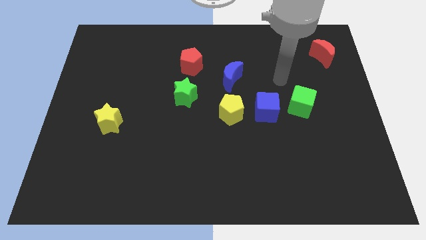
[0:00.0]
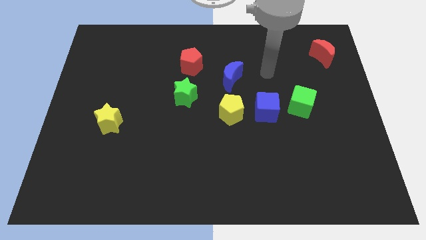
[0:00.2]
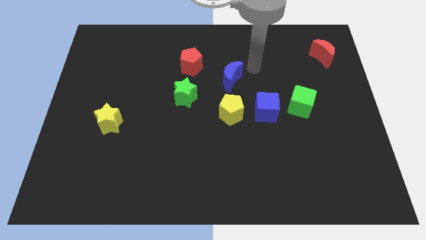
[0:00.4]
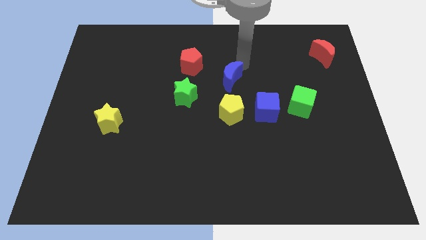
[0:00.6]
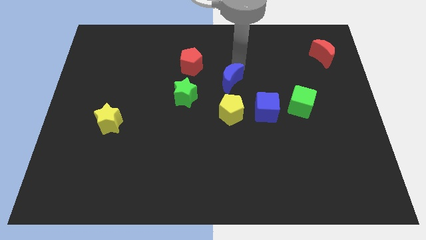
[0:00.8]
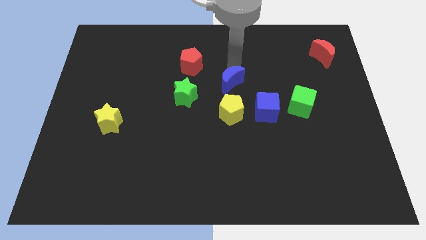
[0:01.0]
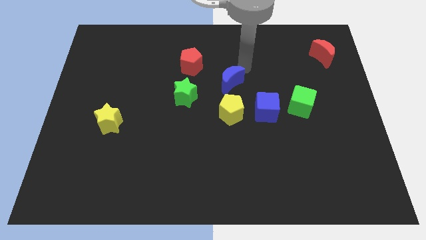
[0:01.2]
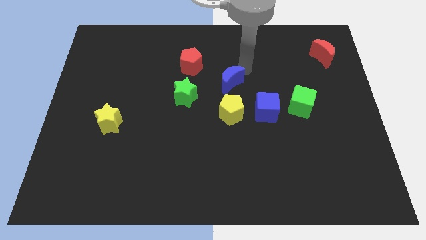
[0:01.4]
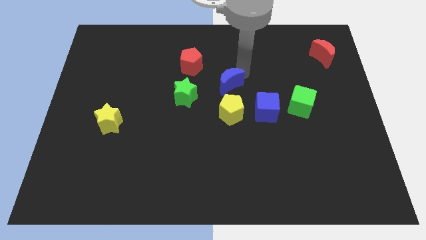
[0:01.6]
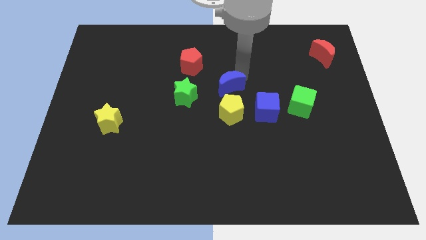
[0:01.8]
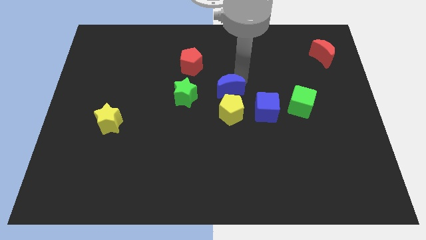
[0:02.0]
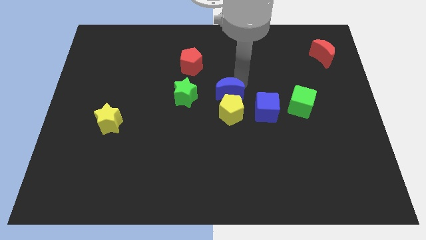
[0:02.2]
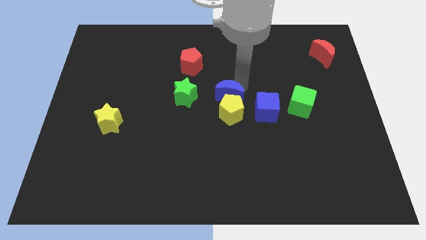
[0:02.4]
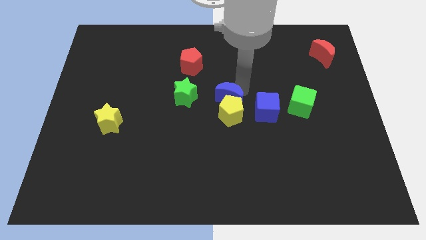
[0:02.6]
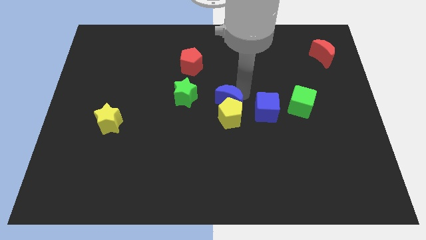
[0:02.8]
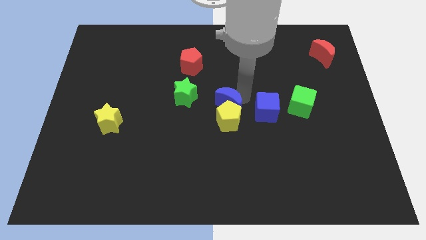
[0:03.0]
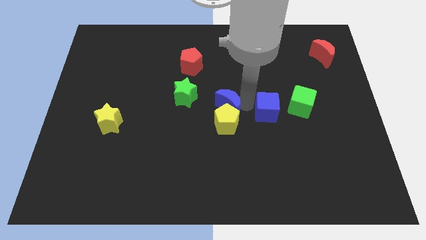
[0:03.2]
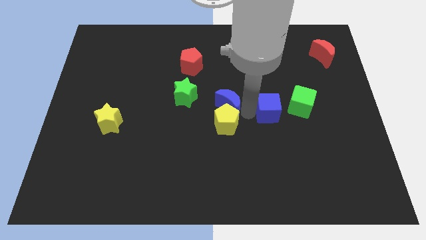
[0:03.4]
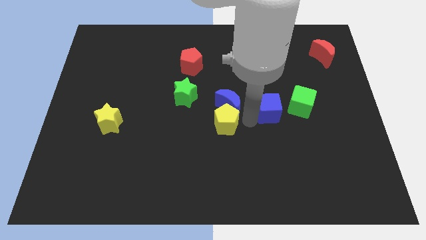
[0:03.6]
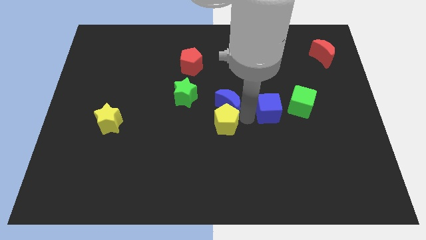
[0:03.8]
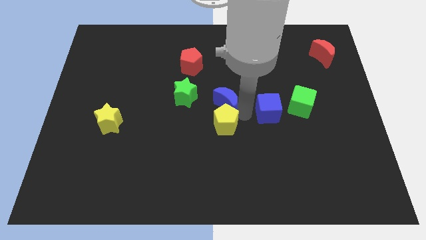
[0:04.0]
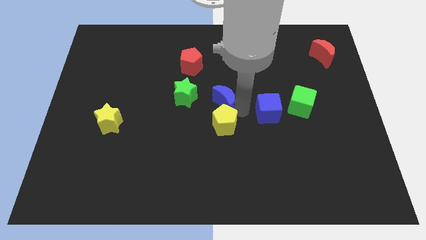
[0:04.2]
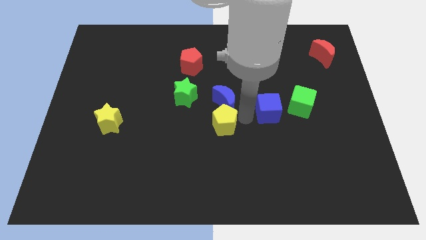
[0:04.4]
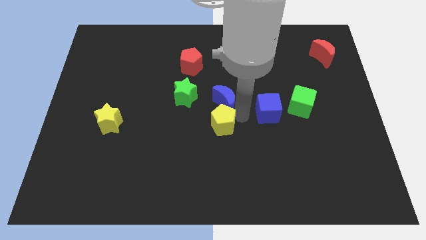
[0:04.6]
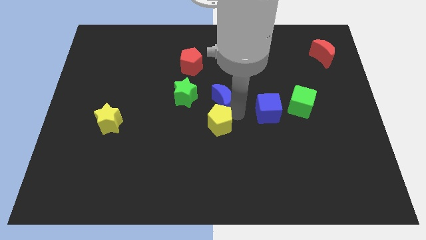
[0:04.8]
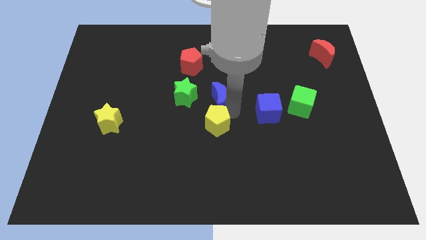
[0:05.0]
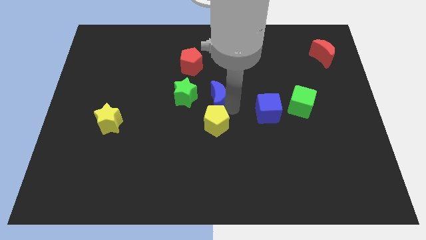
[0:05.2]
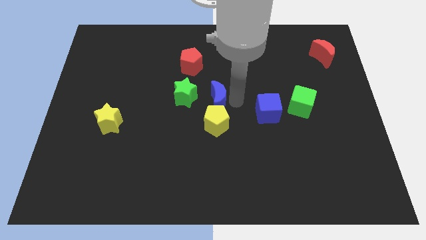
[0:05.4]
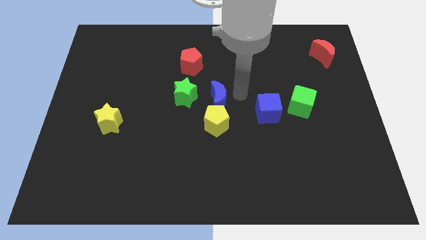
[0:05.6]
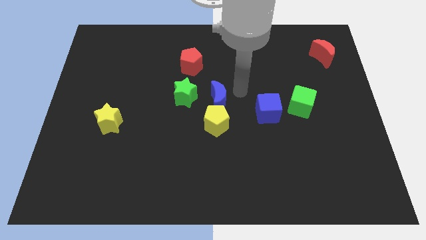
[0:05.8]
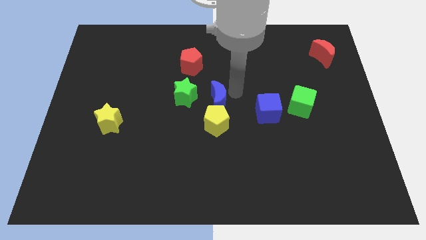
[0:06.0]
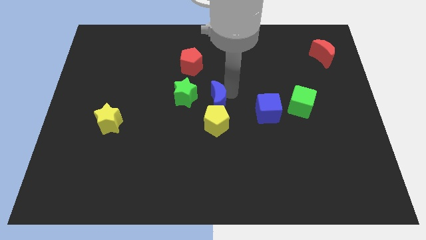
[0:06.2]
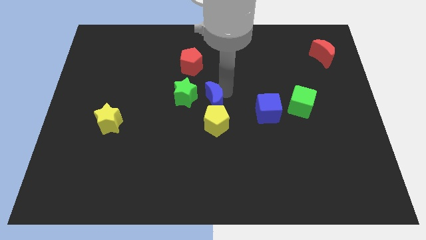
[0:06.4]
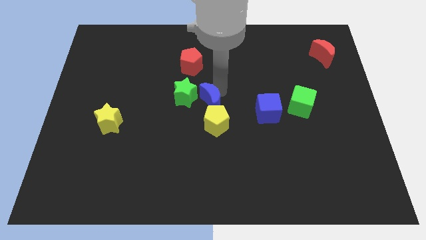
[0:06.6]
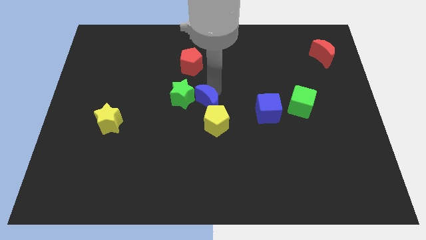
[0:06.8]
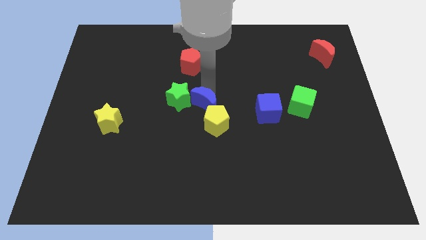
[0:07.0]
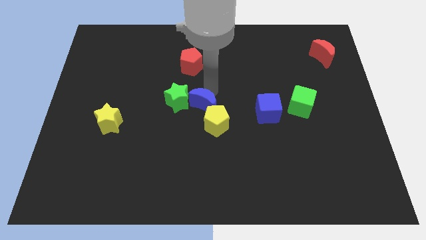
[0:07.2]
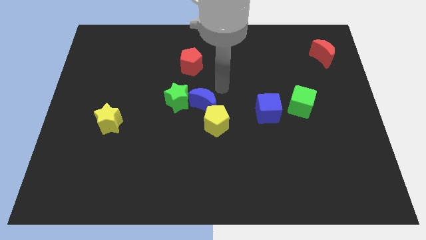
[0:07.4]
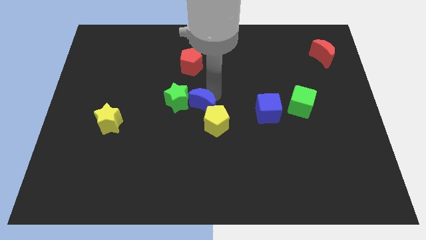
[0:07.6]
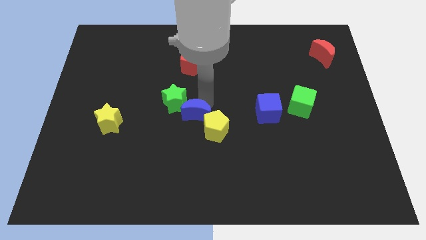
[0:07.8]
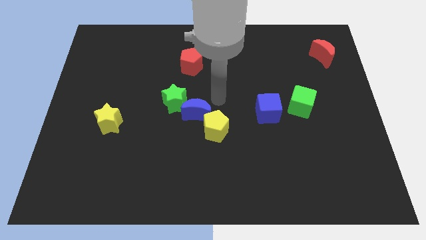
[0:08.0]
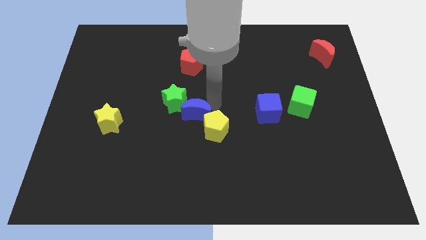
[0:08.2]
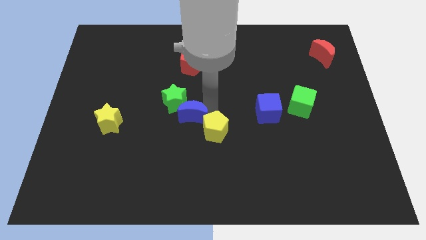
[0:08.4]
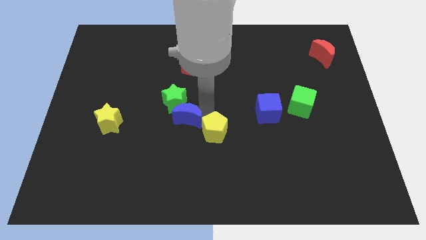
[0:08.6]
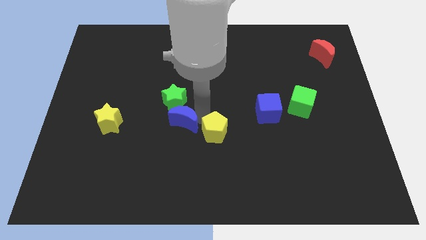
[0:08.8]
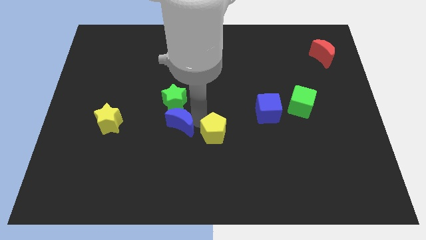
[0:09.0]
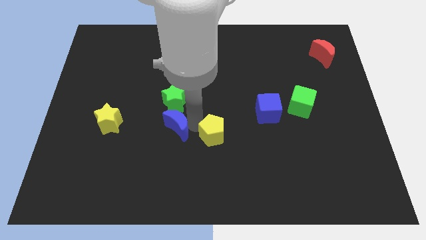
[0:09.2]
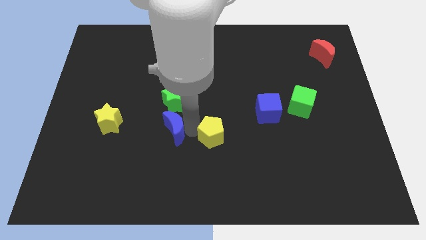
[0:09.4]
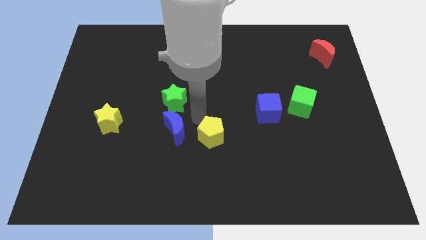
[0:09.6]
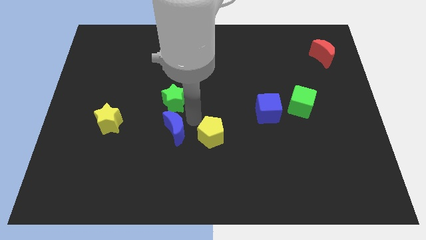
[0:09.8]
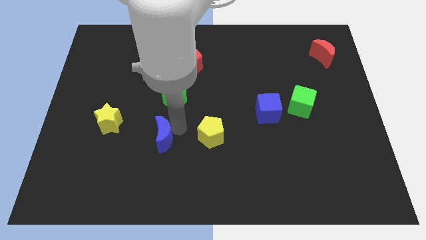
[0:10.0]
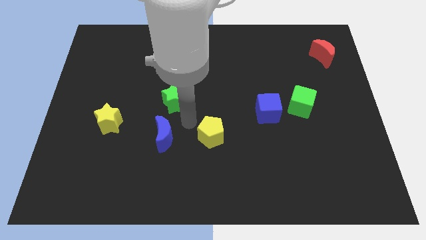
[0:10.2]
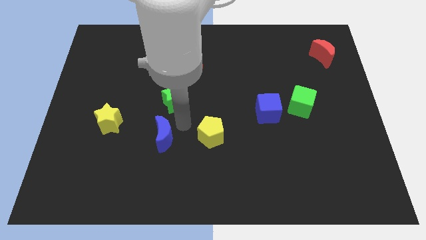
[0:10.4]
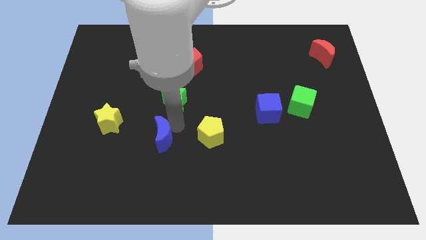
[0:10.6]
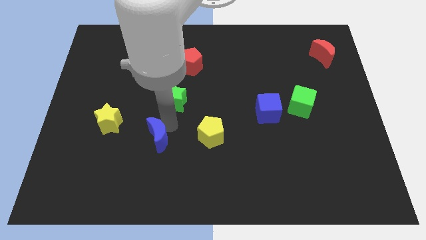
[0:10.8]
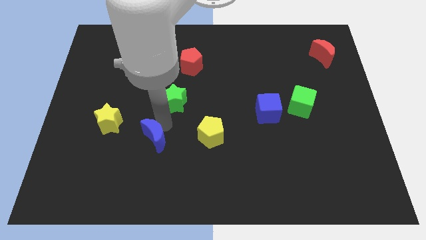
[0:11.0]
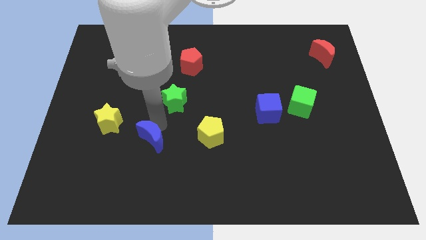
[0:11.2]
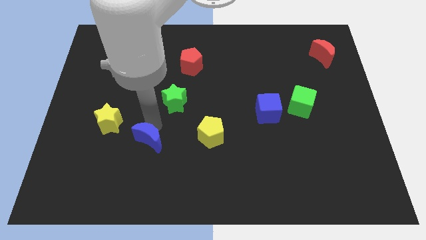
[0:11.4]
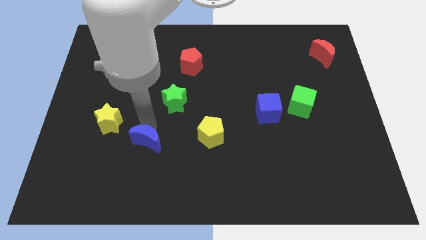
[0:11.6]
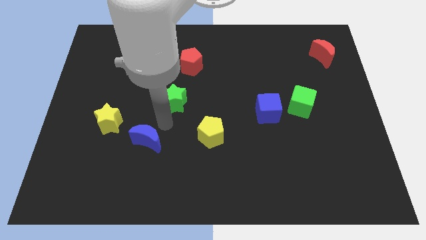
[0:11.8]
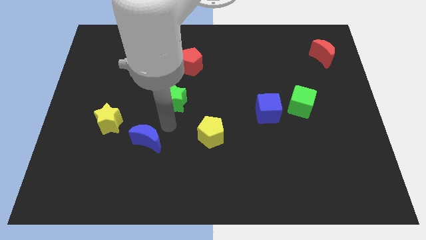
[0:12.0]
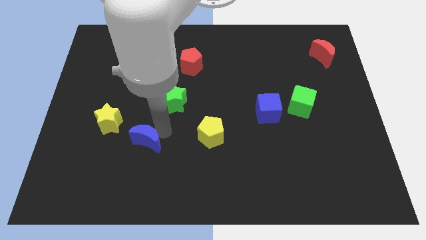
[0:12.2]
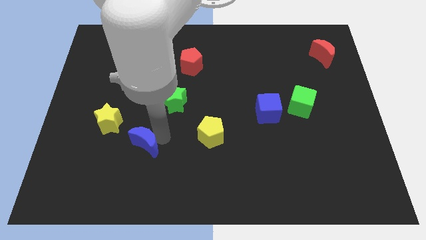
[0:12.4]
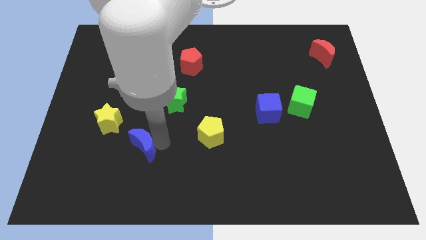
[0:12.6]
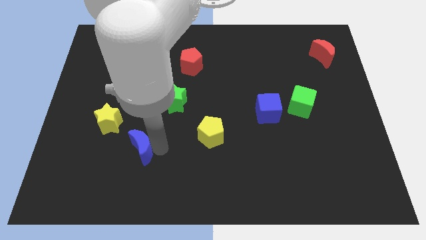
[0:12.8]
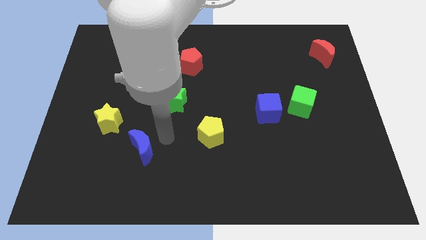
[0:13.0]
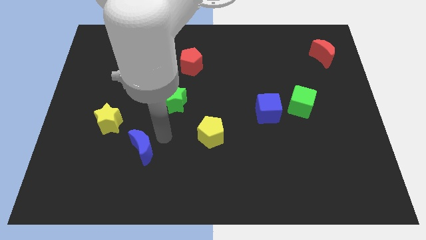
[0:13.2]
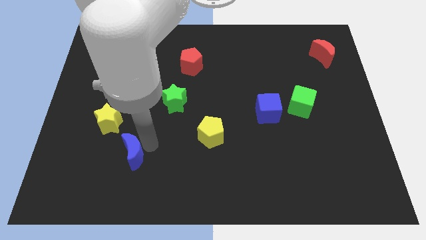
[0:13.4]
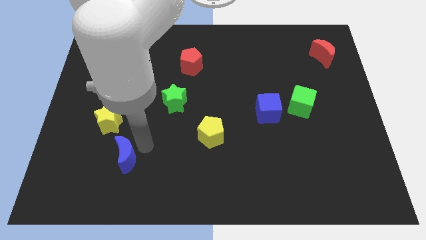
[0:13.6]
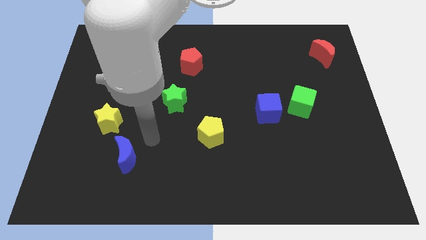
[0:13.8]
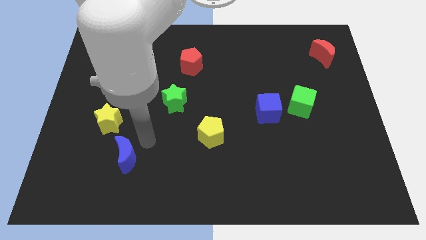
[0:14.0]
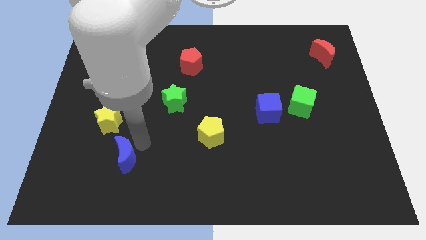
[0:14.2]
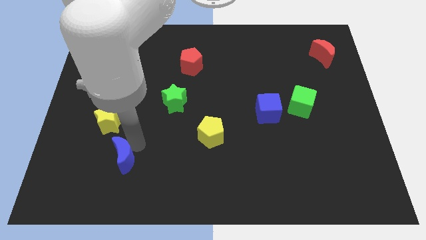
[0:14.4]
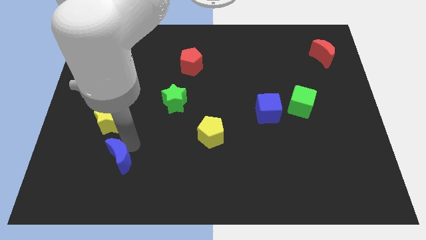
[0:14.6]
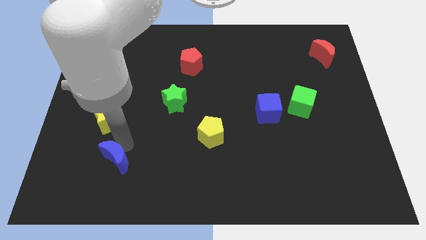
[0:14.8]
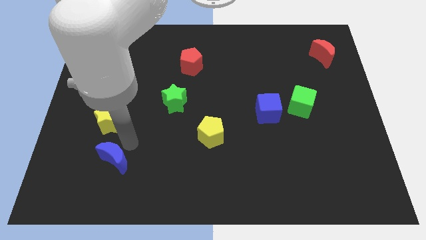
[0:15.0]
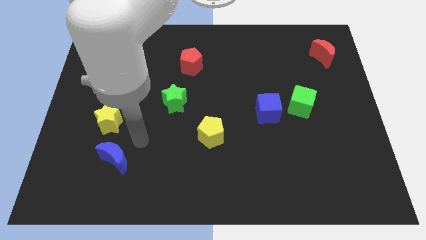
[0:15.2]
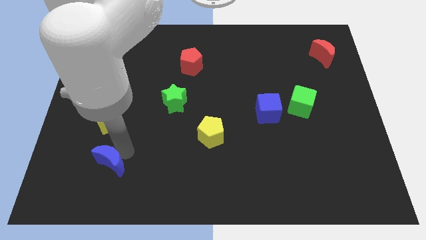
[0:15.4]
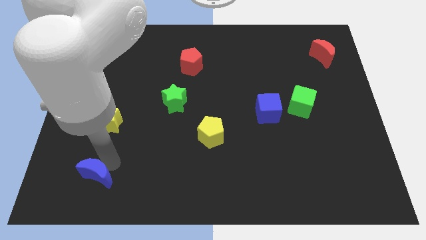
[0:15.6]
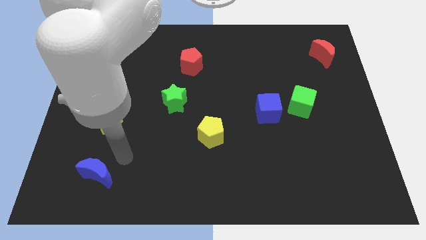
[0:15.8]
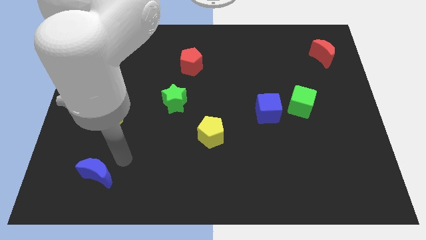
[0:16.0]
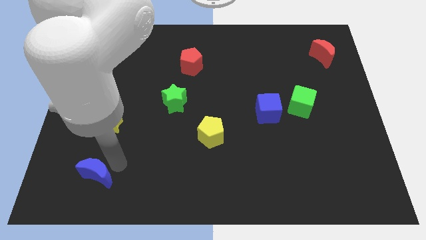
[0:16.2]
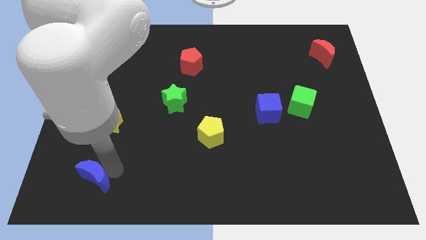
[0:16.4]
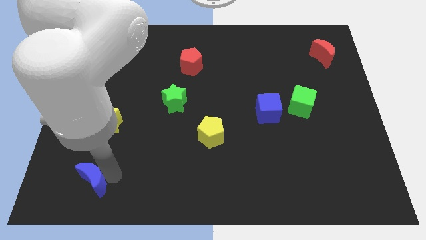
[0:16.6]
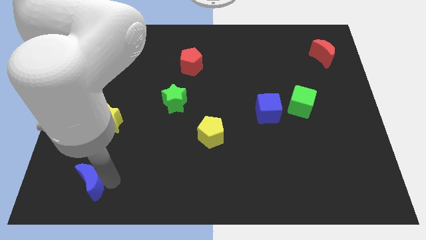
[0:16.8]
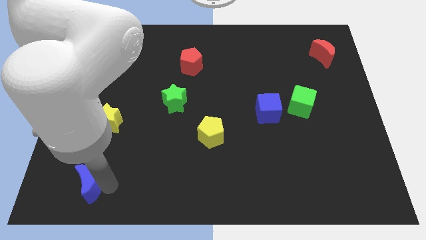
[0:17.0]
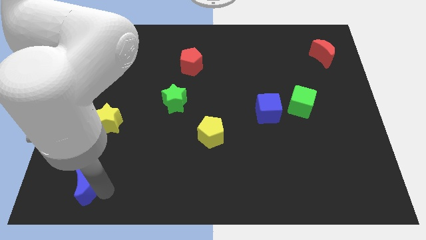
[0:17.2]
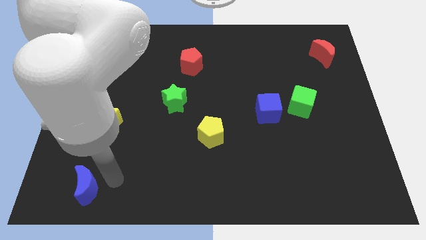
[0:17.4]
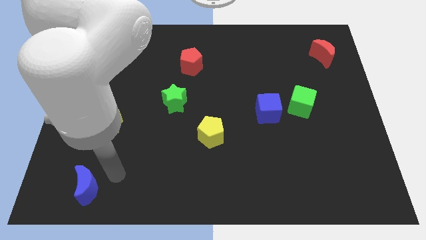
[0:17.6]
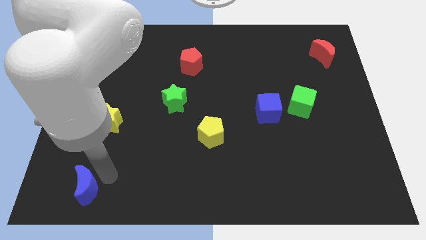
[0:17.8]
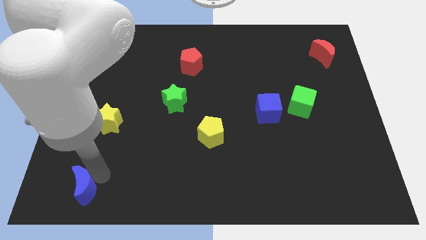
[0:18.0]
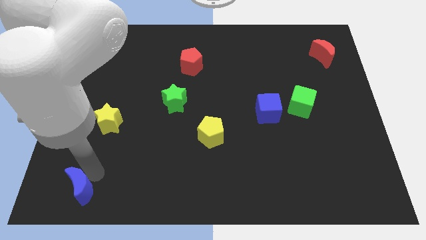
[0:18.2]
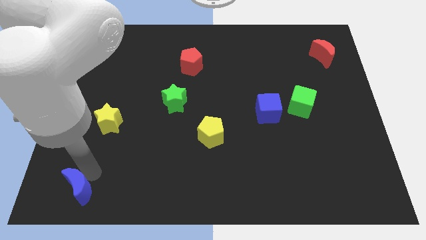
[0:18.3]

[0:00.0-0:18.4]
slide the blue moon to the lower left corner
